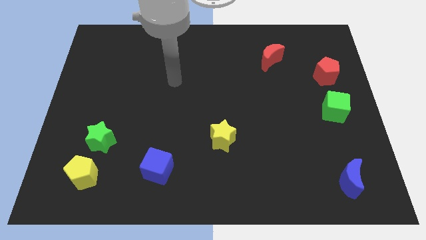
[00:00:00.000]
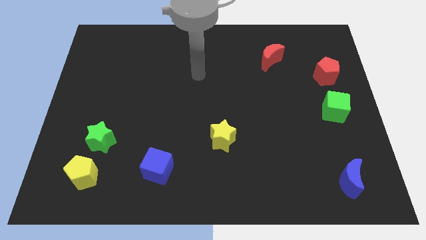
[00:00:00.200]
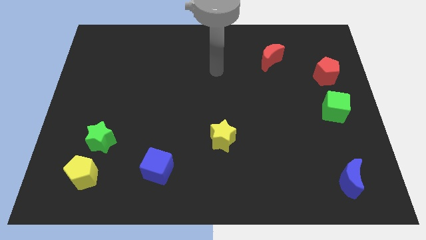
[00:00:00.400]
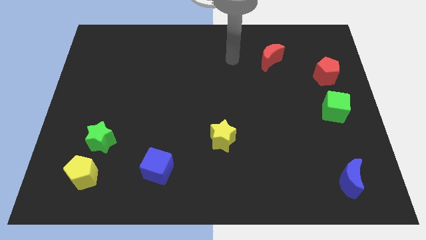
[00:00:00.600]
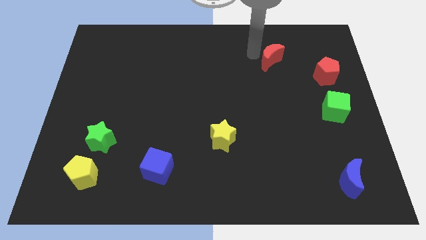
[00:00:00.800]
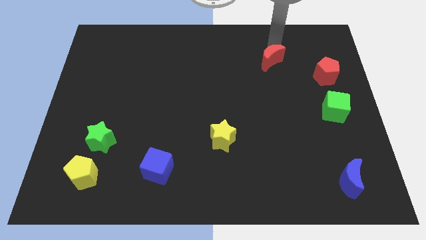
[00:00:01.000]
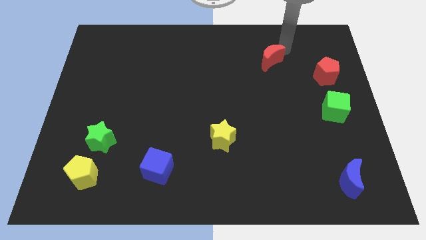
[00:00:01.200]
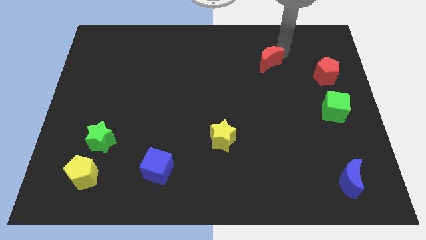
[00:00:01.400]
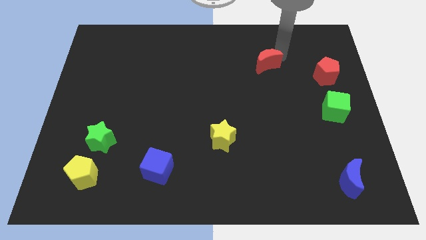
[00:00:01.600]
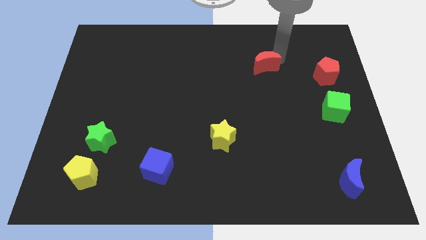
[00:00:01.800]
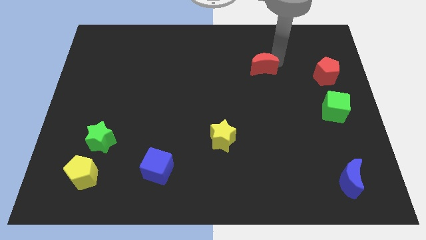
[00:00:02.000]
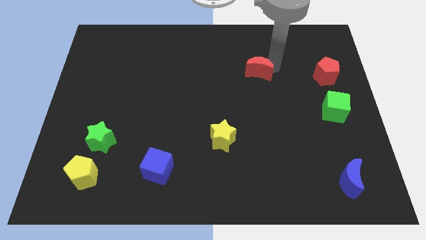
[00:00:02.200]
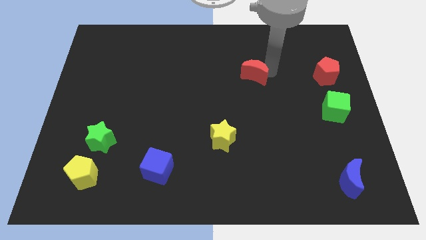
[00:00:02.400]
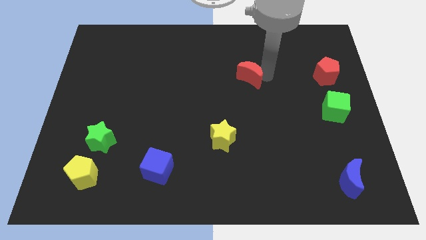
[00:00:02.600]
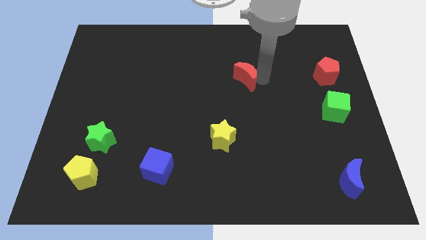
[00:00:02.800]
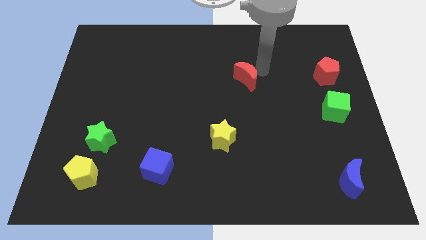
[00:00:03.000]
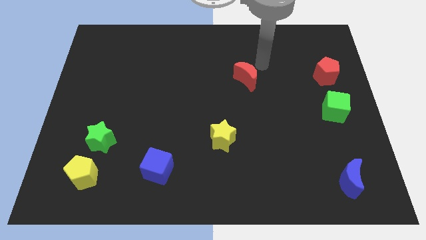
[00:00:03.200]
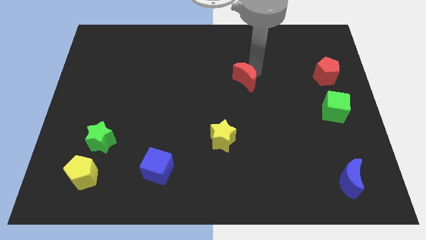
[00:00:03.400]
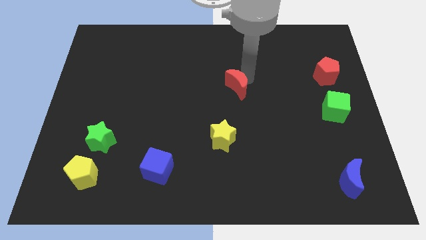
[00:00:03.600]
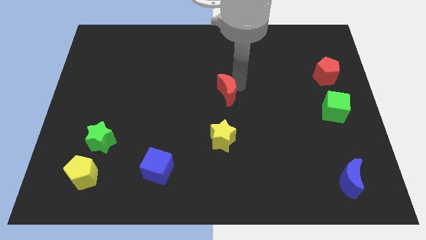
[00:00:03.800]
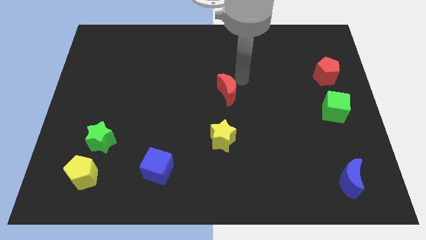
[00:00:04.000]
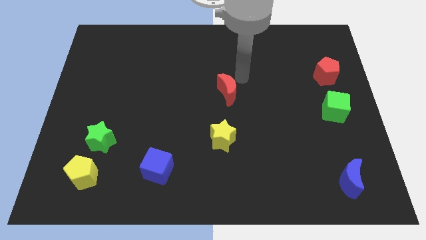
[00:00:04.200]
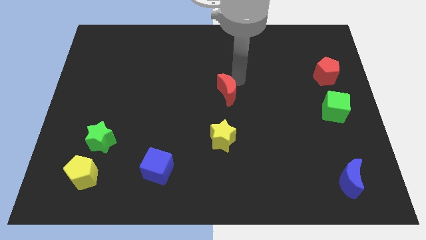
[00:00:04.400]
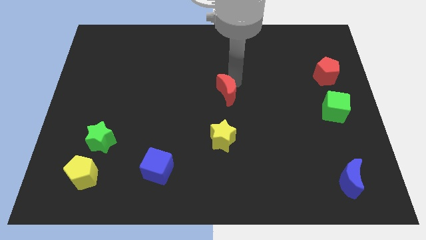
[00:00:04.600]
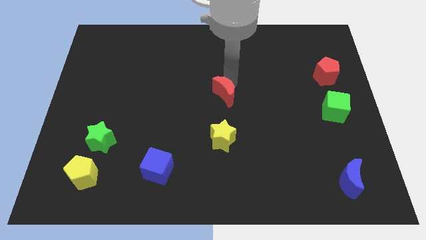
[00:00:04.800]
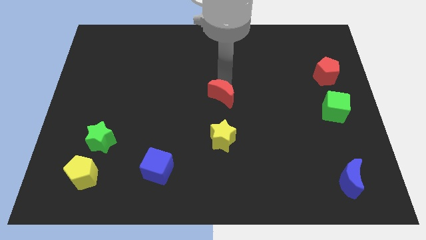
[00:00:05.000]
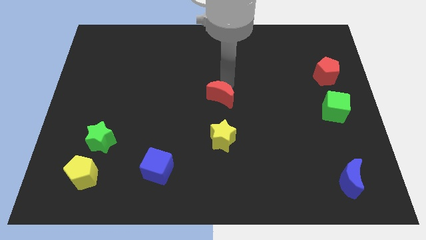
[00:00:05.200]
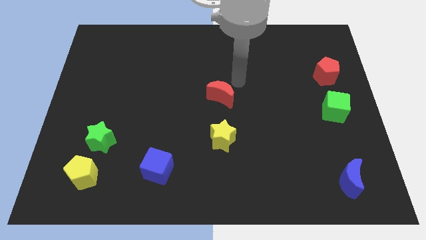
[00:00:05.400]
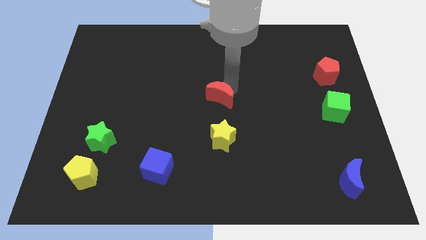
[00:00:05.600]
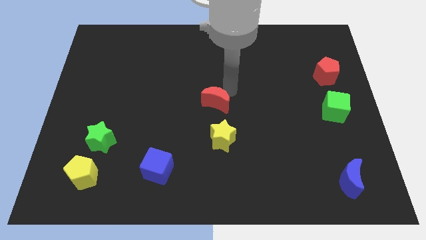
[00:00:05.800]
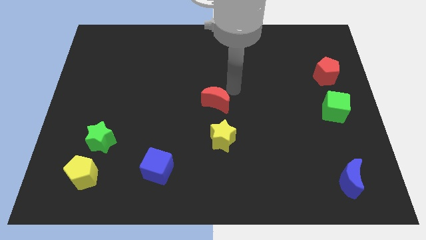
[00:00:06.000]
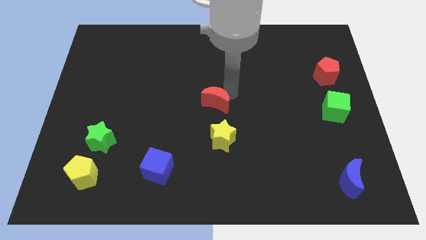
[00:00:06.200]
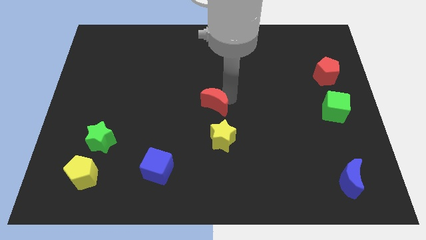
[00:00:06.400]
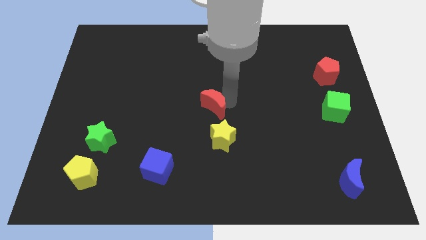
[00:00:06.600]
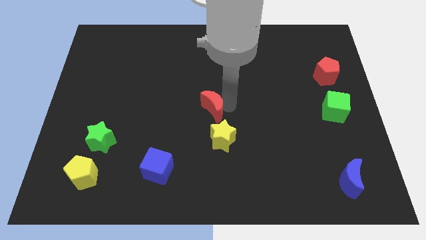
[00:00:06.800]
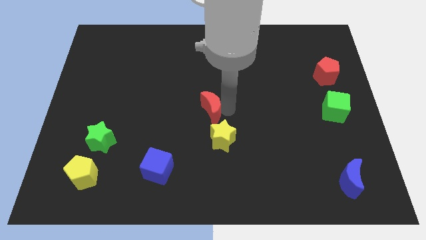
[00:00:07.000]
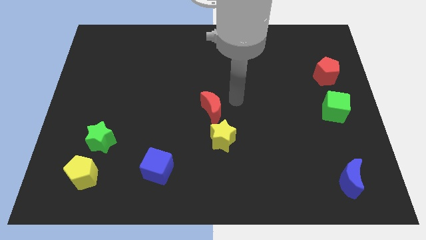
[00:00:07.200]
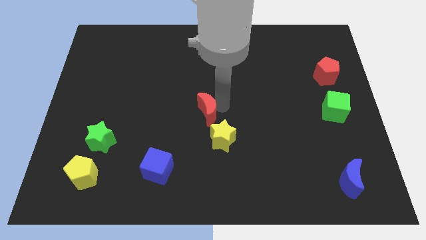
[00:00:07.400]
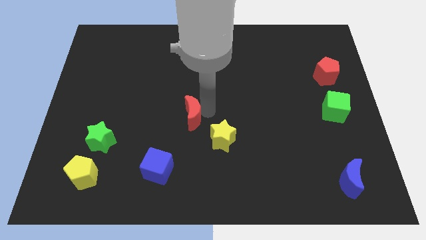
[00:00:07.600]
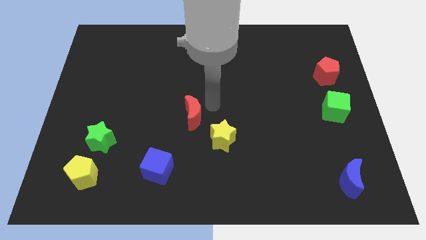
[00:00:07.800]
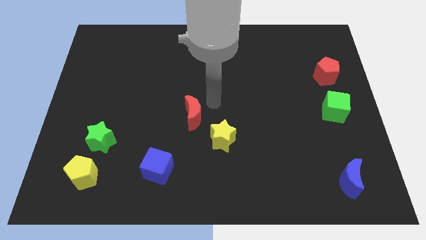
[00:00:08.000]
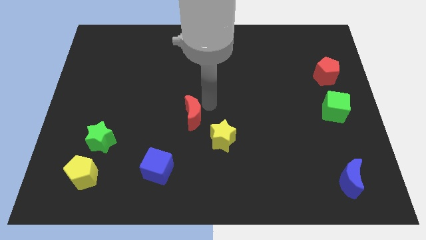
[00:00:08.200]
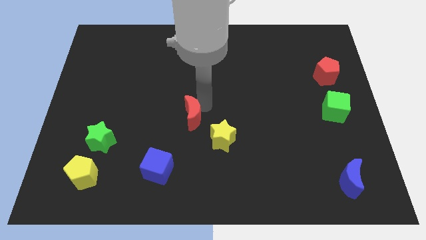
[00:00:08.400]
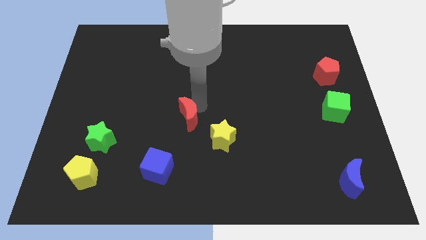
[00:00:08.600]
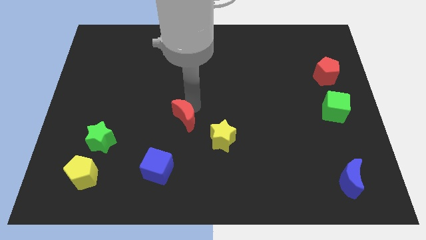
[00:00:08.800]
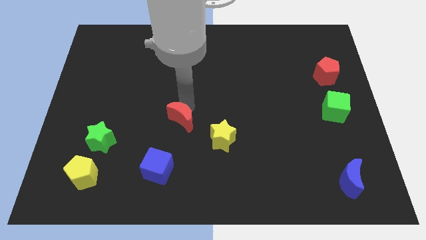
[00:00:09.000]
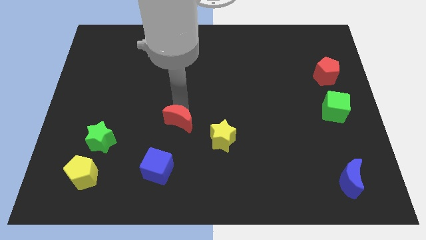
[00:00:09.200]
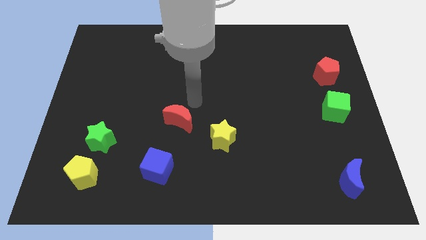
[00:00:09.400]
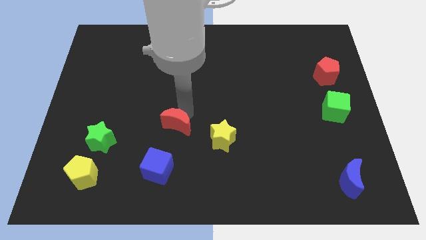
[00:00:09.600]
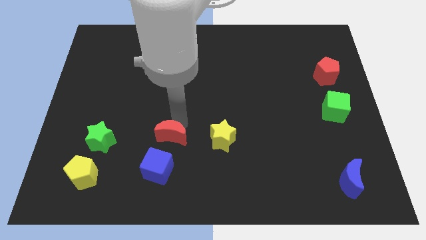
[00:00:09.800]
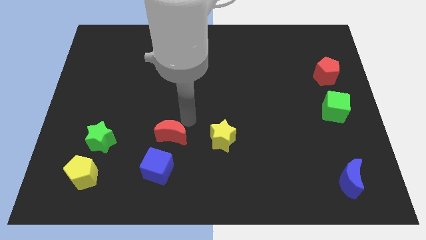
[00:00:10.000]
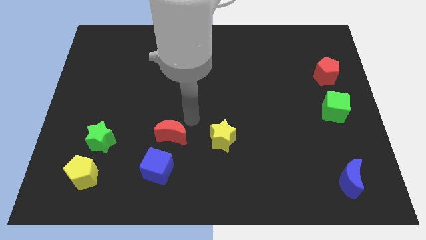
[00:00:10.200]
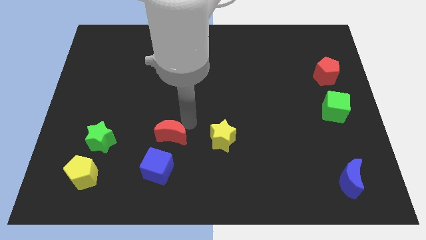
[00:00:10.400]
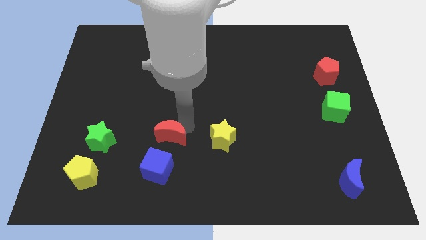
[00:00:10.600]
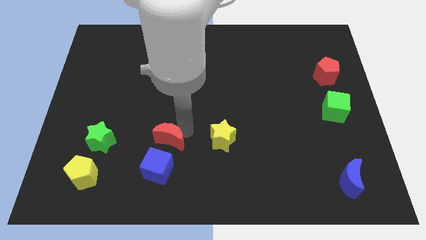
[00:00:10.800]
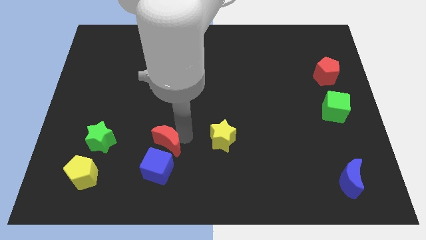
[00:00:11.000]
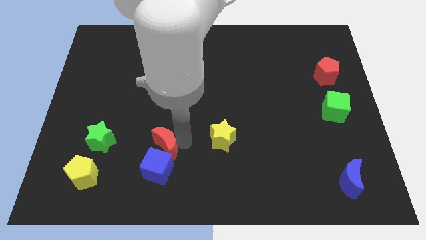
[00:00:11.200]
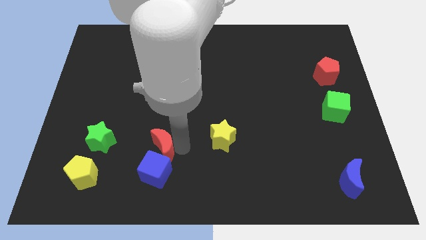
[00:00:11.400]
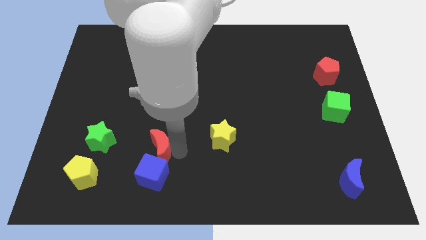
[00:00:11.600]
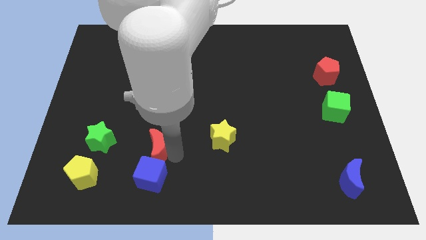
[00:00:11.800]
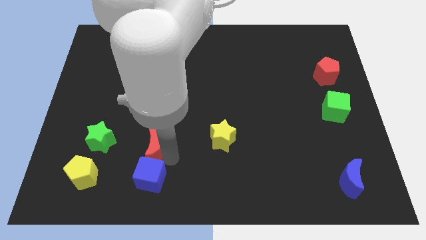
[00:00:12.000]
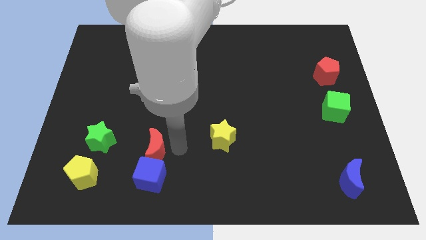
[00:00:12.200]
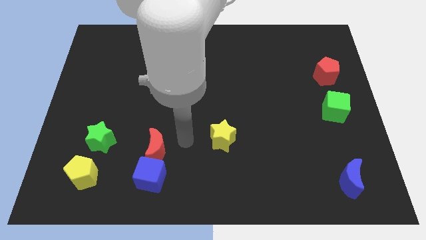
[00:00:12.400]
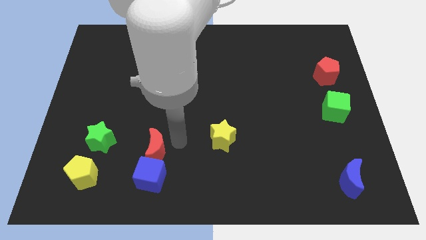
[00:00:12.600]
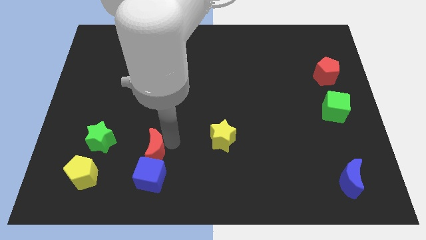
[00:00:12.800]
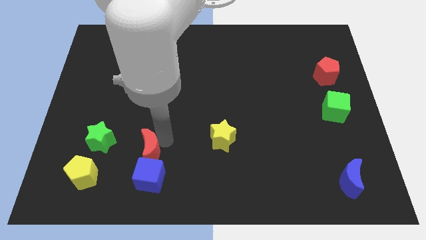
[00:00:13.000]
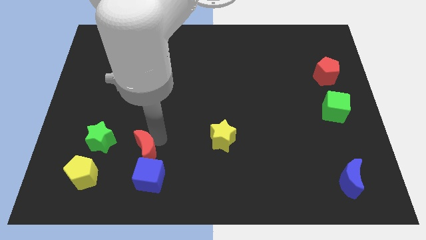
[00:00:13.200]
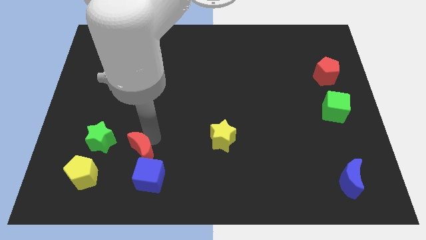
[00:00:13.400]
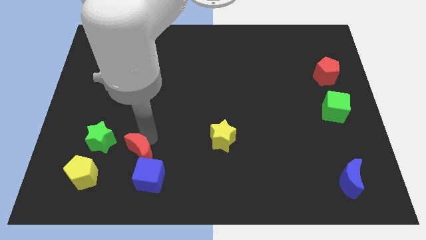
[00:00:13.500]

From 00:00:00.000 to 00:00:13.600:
move the red moon to the bottom right side of the green star
